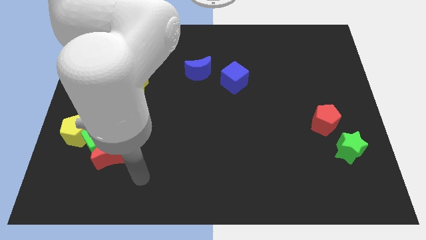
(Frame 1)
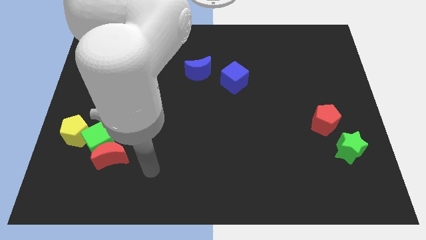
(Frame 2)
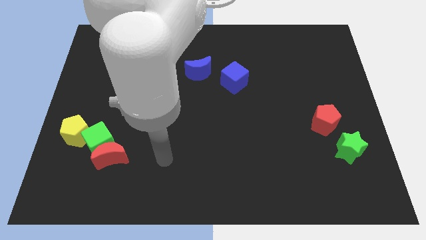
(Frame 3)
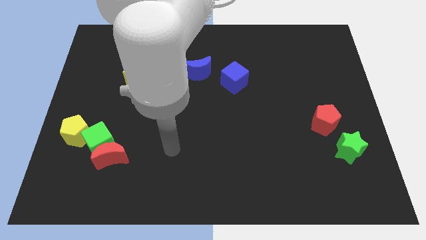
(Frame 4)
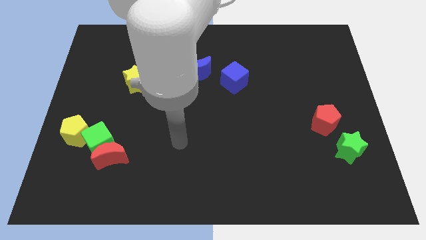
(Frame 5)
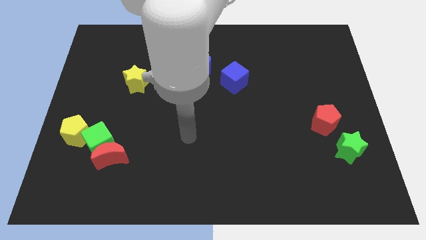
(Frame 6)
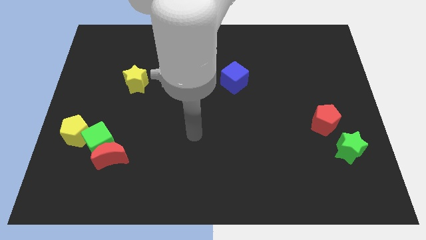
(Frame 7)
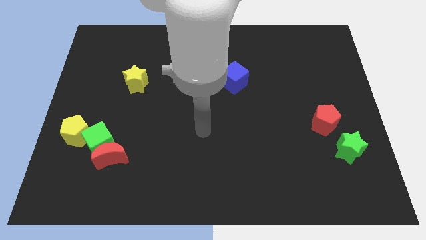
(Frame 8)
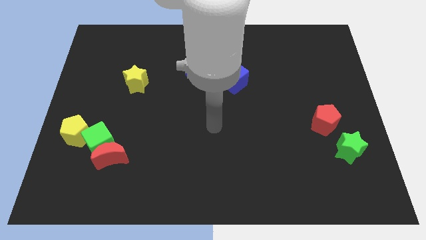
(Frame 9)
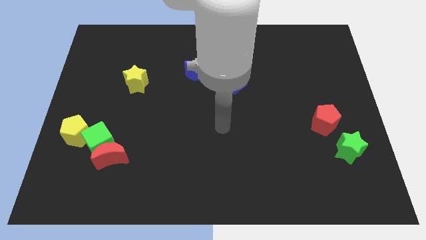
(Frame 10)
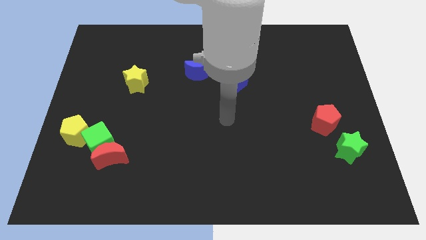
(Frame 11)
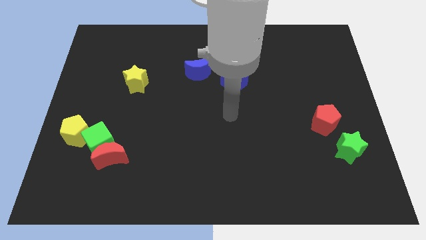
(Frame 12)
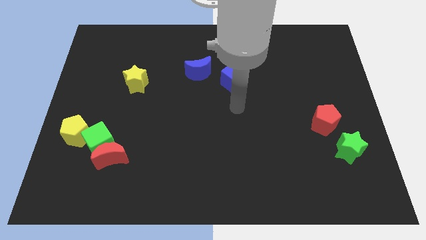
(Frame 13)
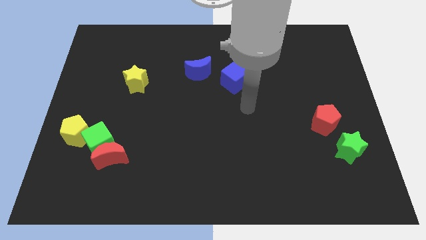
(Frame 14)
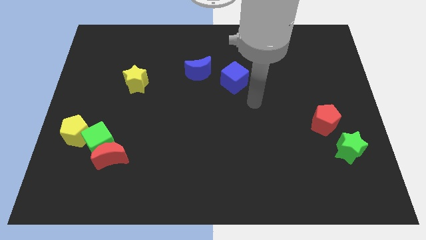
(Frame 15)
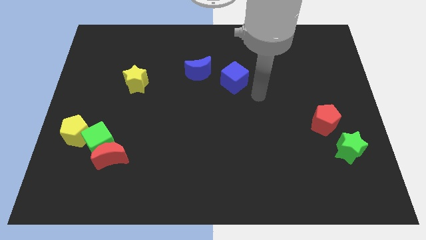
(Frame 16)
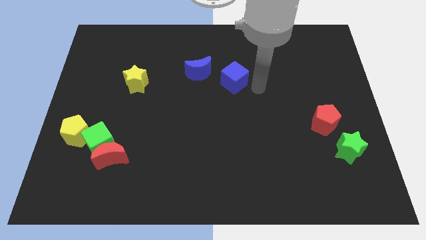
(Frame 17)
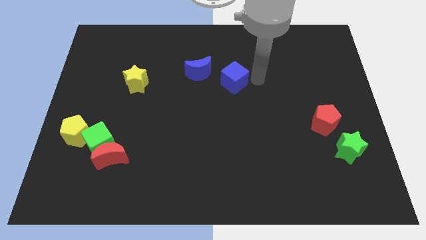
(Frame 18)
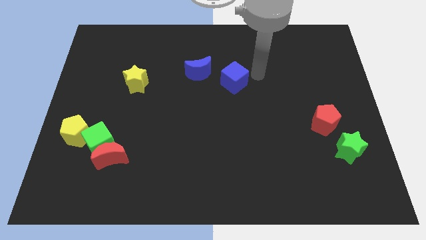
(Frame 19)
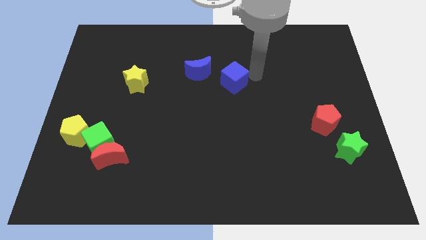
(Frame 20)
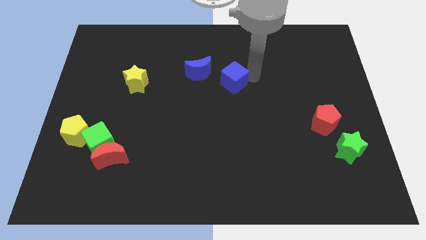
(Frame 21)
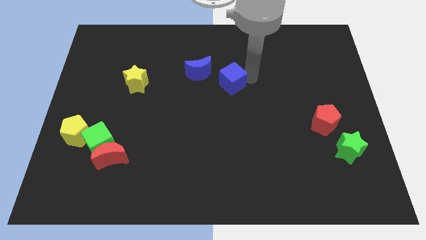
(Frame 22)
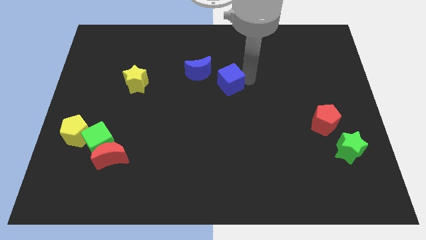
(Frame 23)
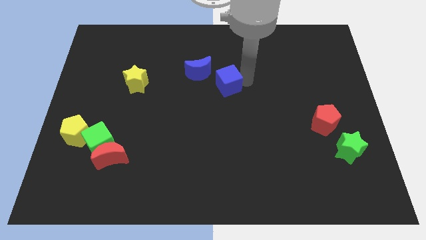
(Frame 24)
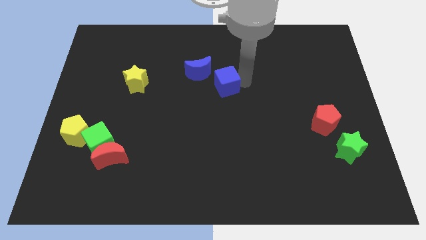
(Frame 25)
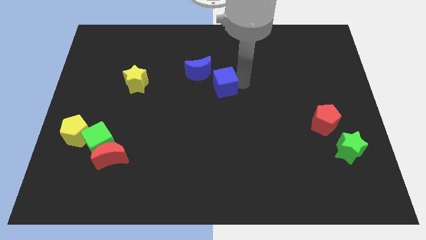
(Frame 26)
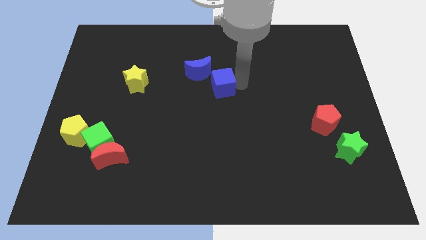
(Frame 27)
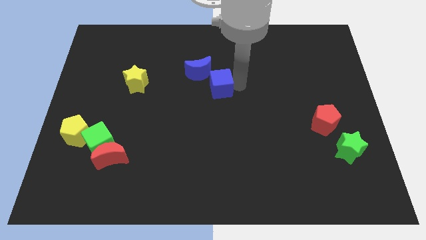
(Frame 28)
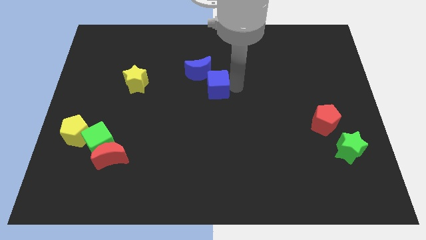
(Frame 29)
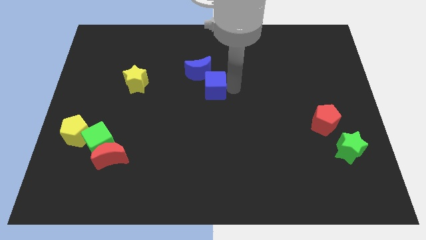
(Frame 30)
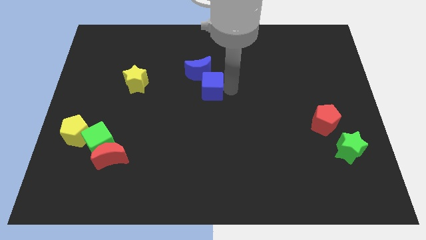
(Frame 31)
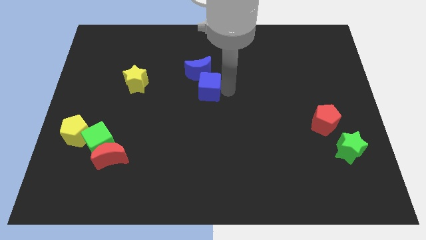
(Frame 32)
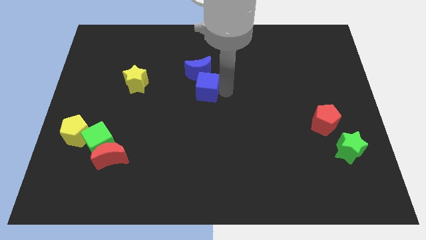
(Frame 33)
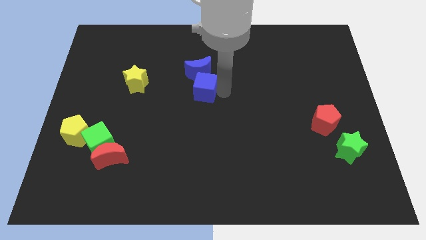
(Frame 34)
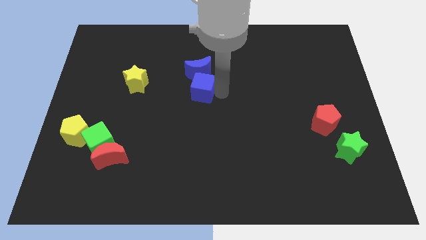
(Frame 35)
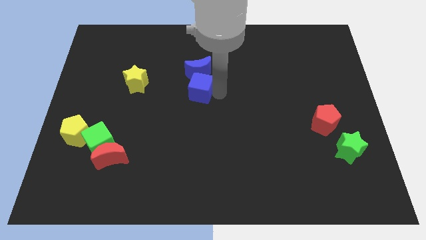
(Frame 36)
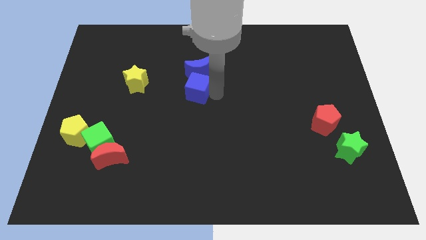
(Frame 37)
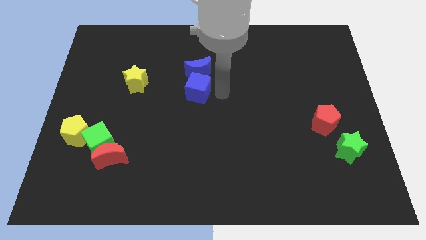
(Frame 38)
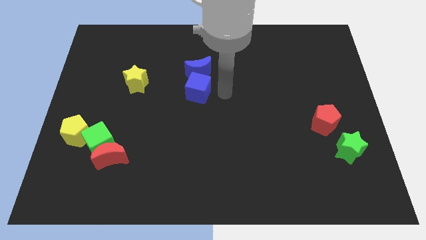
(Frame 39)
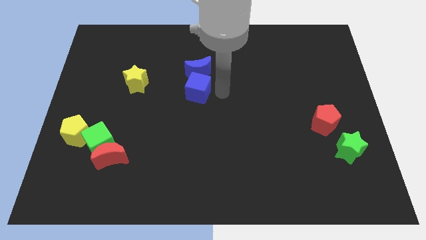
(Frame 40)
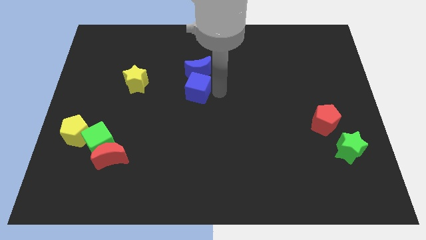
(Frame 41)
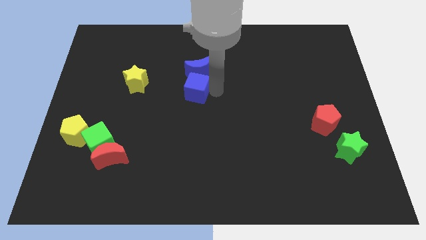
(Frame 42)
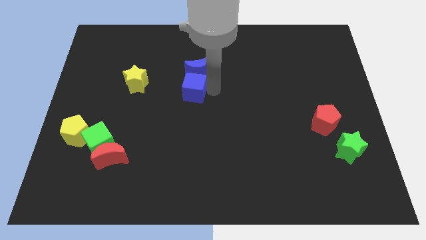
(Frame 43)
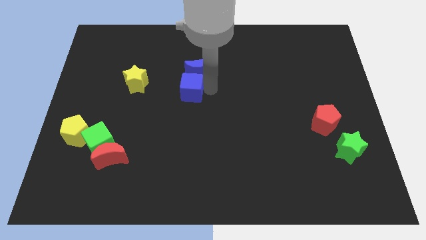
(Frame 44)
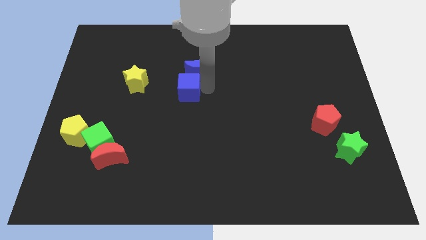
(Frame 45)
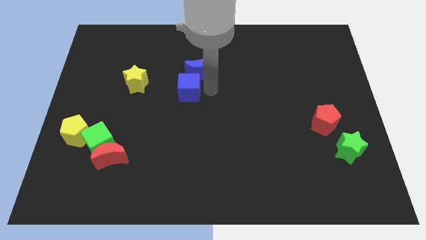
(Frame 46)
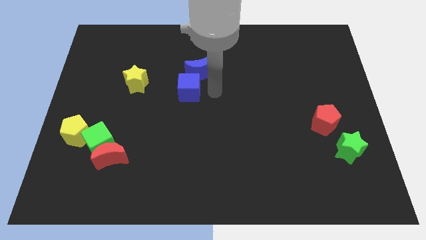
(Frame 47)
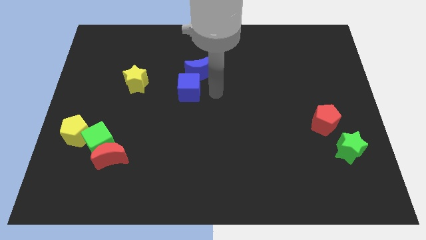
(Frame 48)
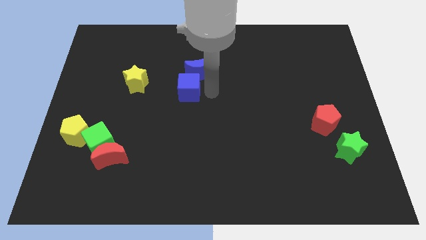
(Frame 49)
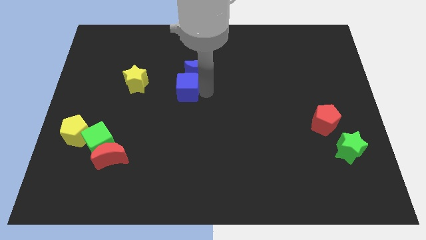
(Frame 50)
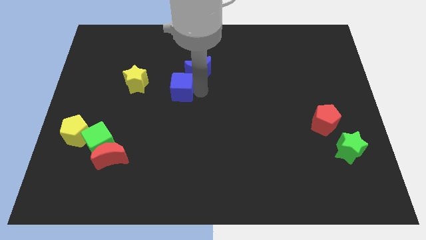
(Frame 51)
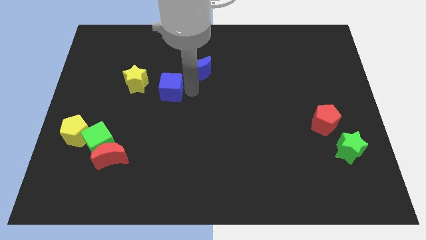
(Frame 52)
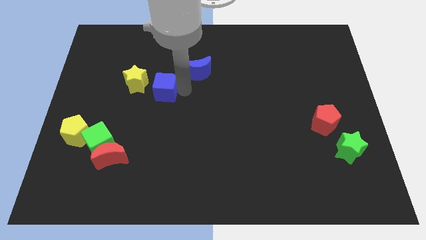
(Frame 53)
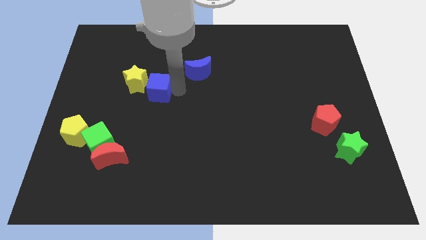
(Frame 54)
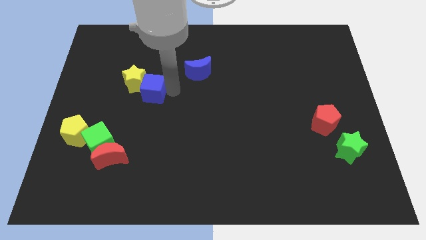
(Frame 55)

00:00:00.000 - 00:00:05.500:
move the blue cube towards the yellow star

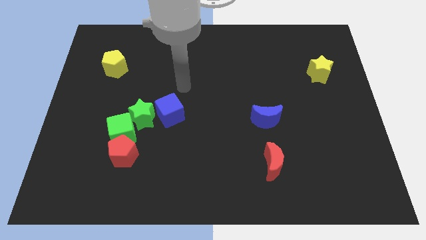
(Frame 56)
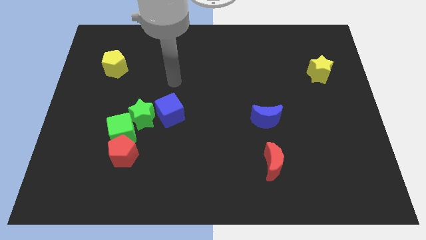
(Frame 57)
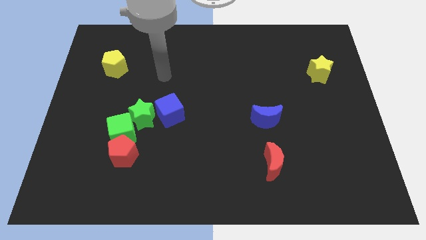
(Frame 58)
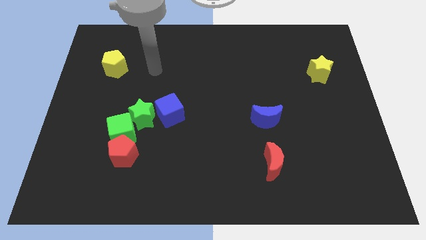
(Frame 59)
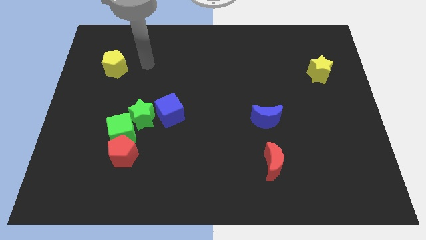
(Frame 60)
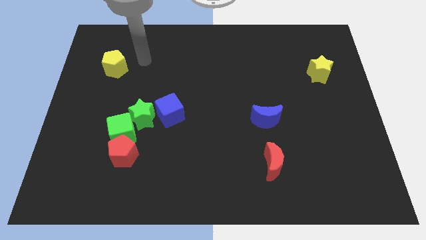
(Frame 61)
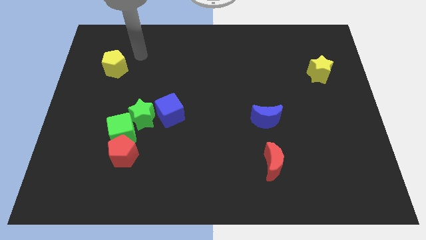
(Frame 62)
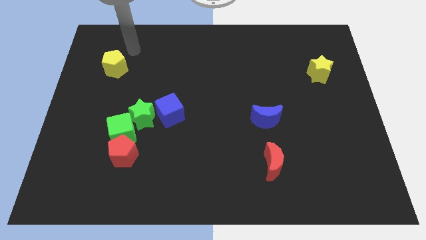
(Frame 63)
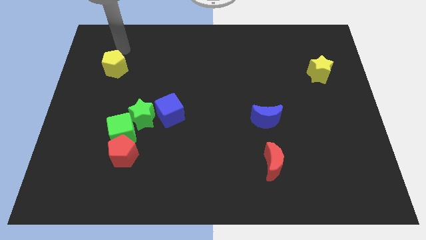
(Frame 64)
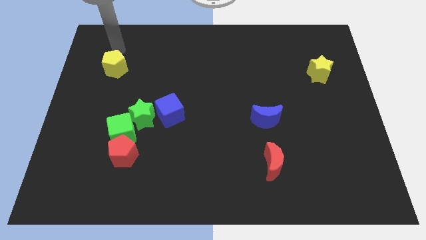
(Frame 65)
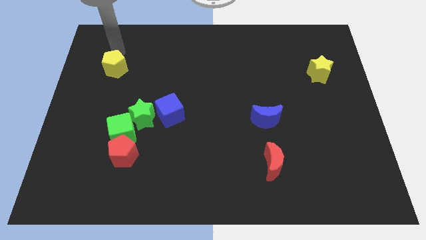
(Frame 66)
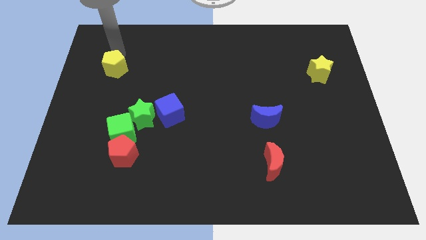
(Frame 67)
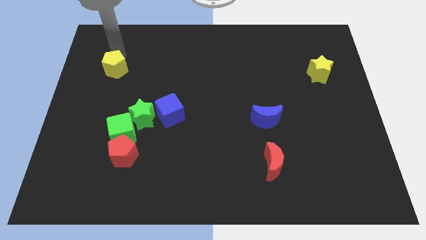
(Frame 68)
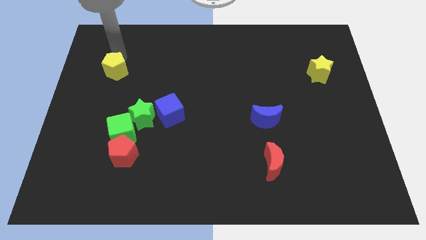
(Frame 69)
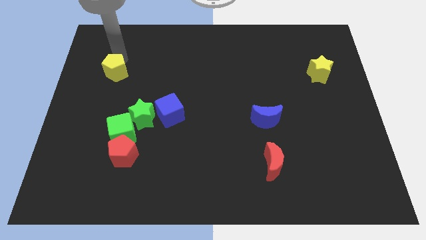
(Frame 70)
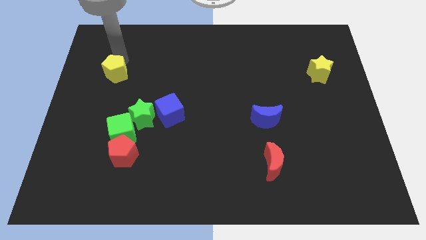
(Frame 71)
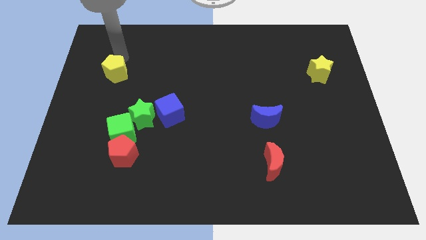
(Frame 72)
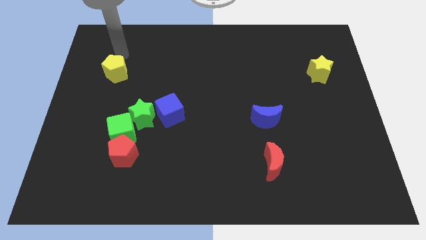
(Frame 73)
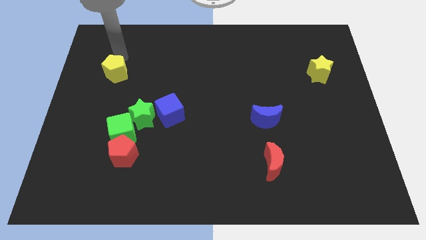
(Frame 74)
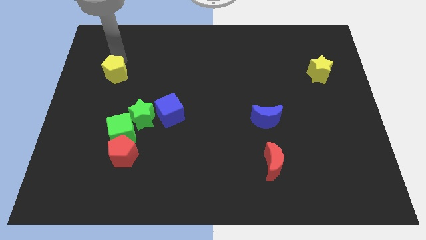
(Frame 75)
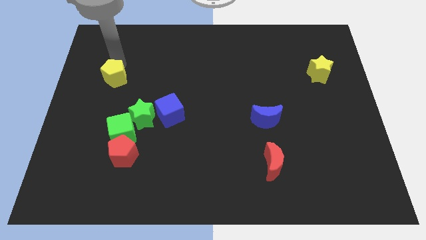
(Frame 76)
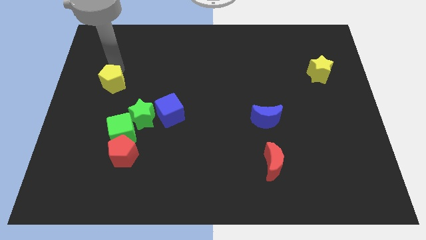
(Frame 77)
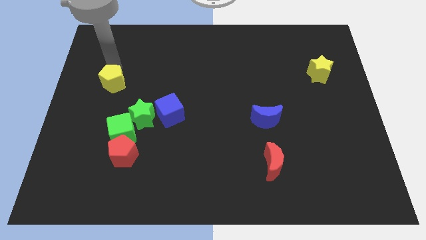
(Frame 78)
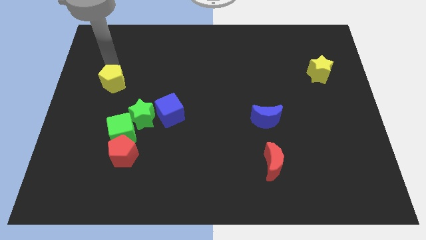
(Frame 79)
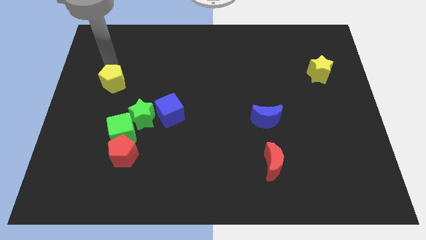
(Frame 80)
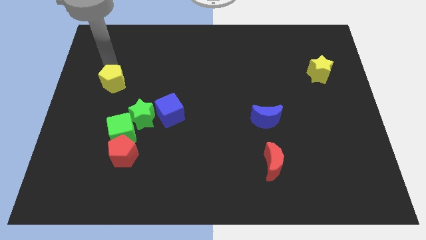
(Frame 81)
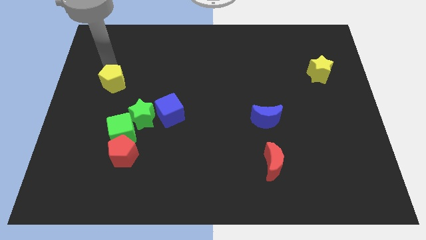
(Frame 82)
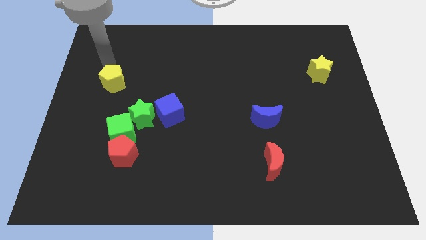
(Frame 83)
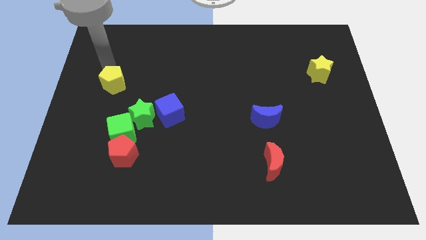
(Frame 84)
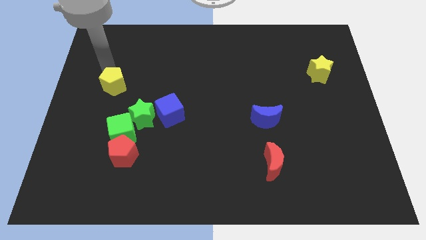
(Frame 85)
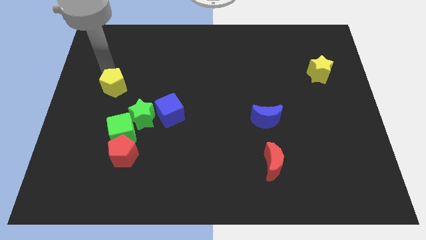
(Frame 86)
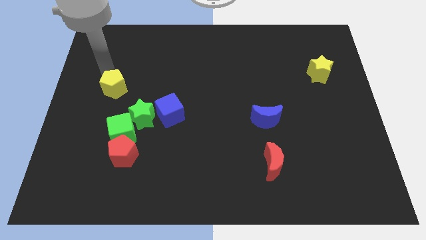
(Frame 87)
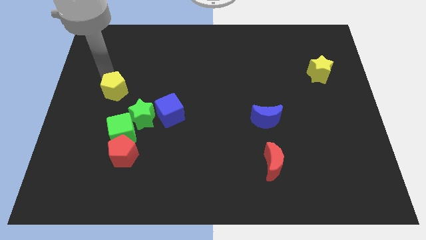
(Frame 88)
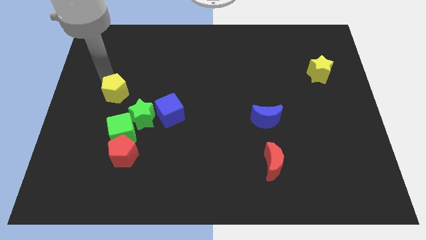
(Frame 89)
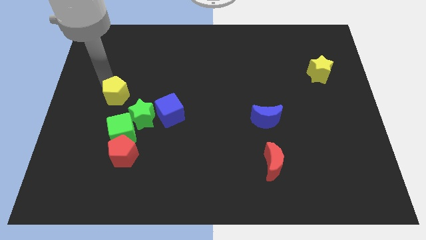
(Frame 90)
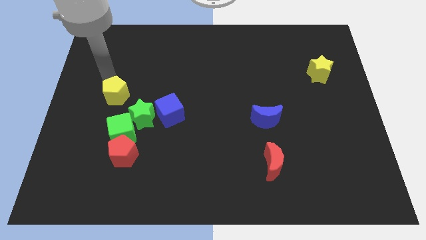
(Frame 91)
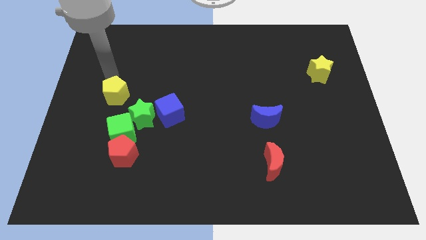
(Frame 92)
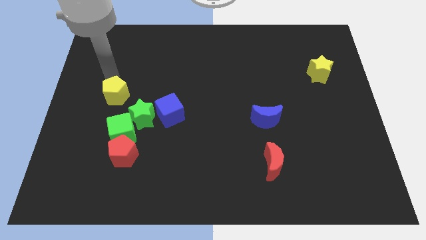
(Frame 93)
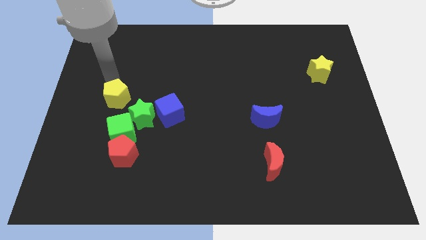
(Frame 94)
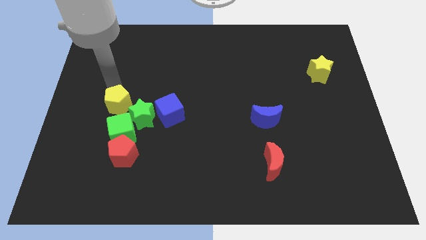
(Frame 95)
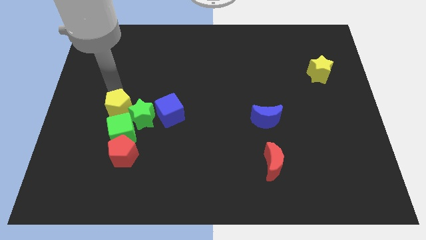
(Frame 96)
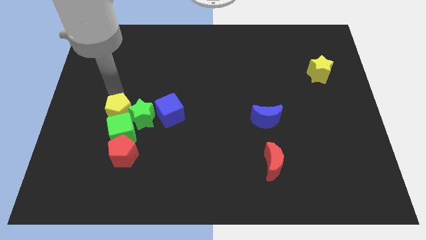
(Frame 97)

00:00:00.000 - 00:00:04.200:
slide the yellow pentagon towards the green cube
